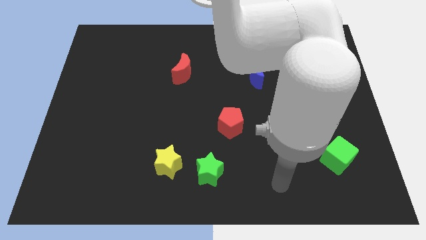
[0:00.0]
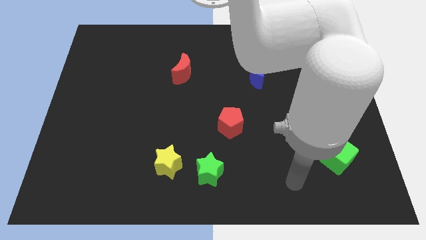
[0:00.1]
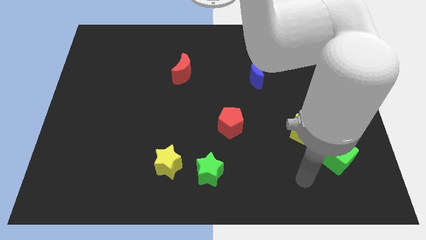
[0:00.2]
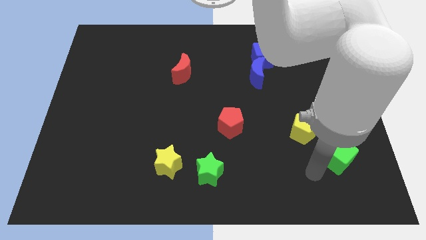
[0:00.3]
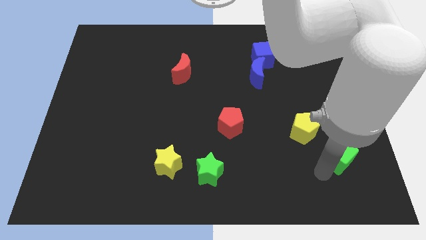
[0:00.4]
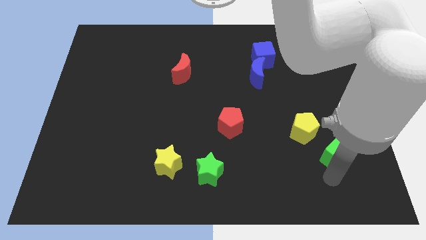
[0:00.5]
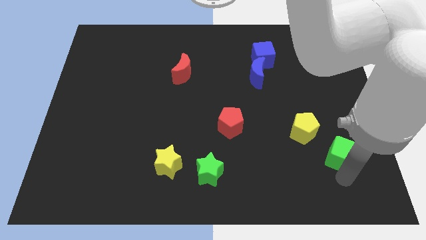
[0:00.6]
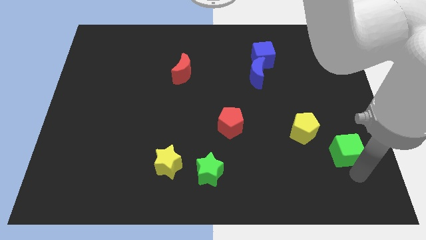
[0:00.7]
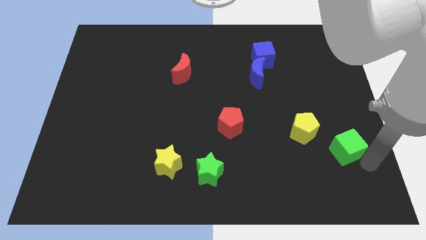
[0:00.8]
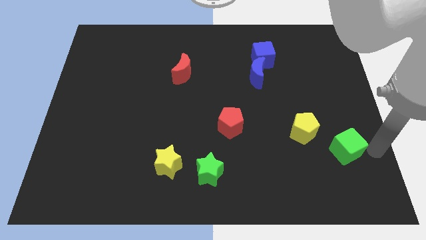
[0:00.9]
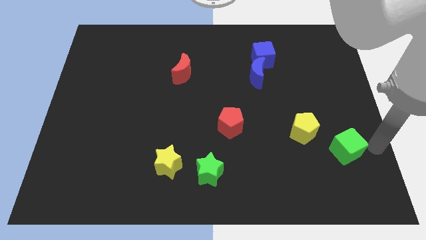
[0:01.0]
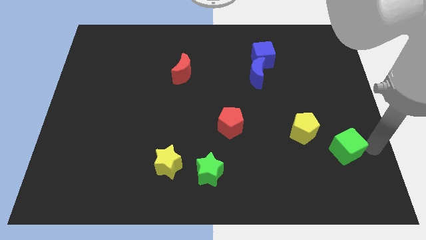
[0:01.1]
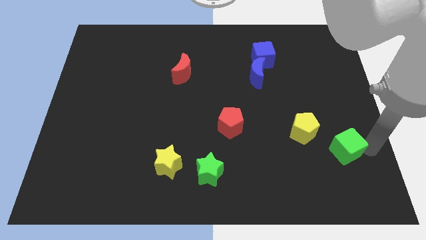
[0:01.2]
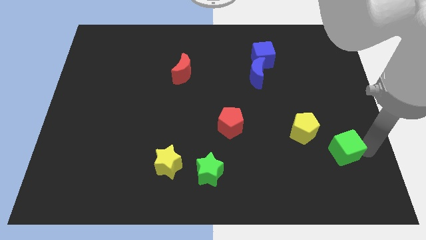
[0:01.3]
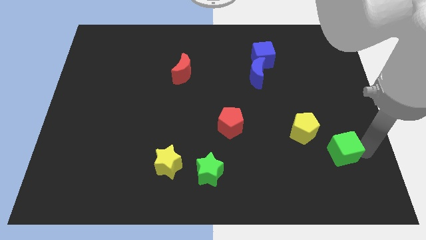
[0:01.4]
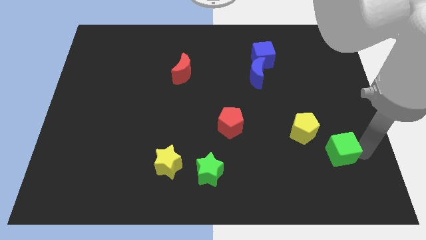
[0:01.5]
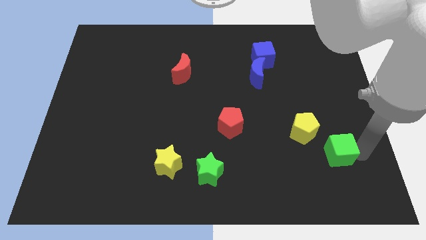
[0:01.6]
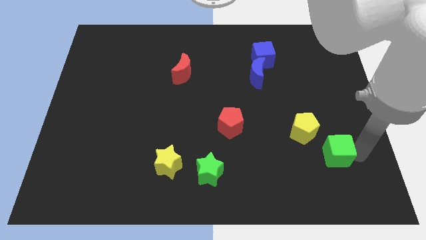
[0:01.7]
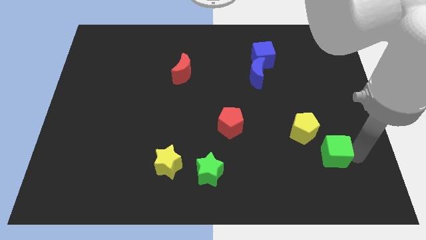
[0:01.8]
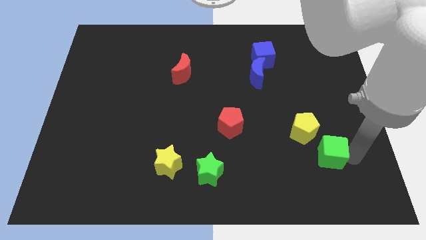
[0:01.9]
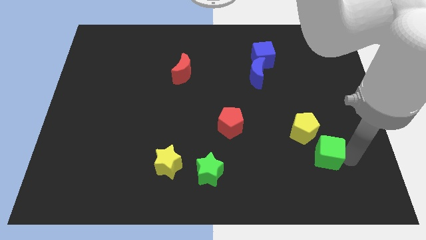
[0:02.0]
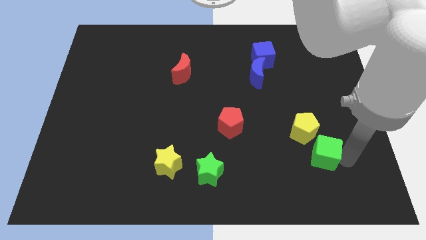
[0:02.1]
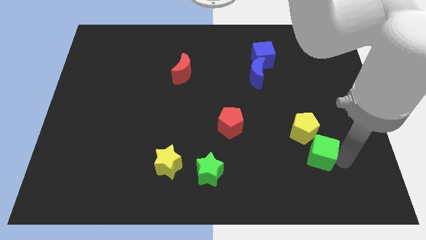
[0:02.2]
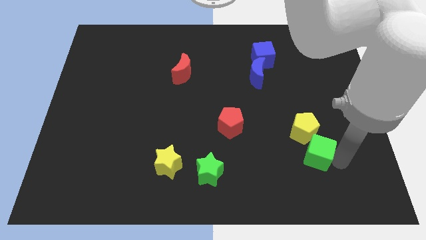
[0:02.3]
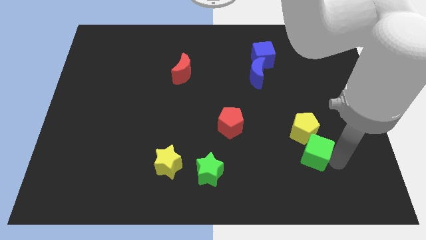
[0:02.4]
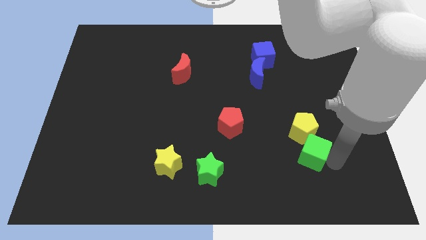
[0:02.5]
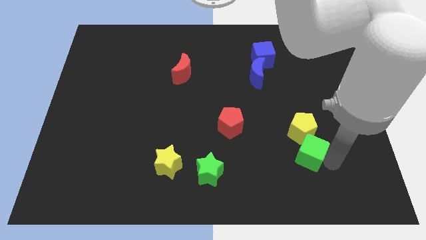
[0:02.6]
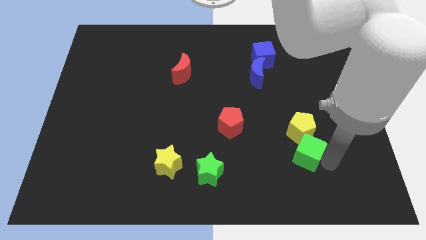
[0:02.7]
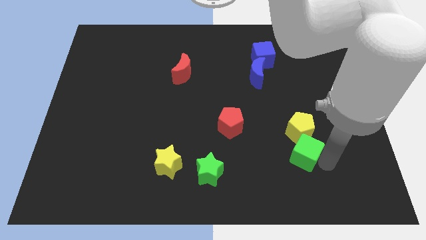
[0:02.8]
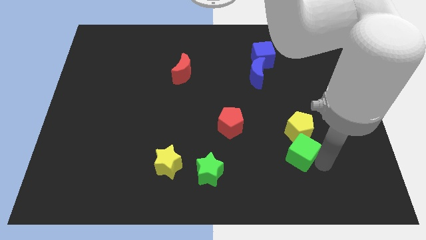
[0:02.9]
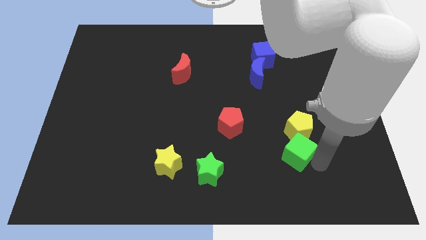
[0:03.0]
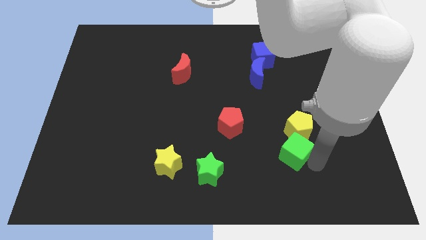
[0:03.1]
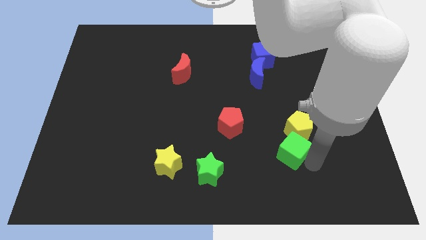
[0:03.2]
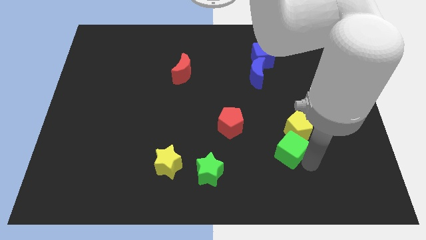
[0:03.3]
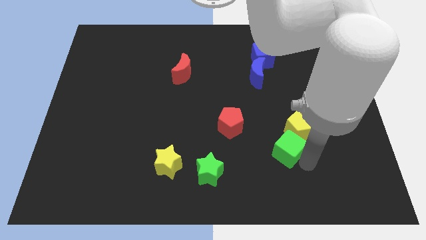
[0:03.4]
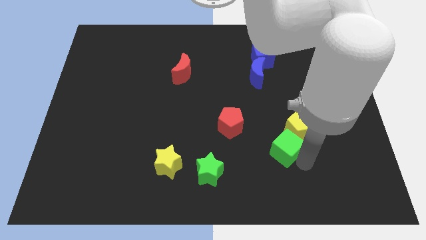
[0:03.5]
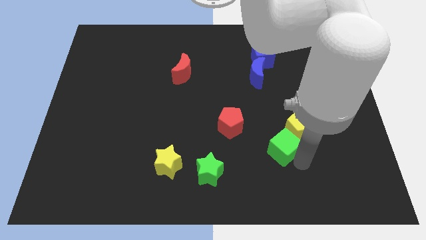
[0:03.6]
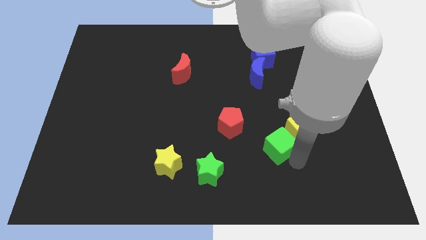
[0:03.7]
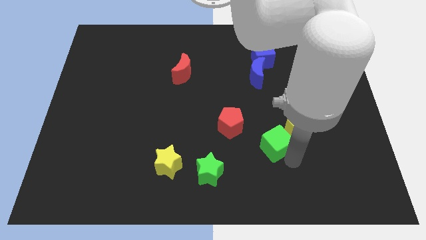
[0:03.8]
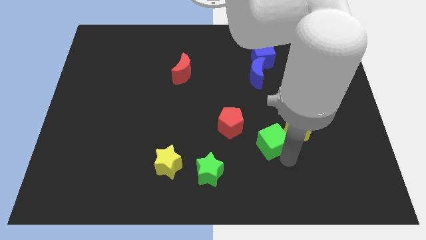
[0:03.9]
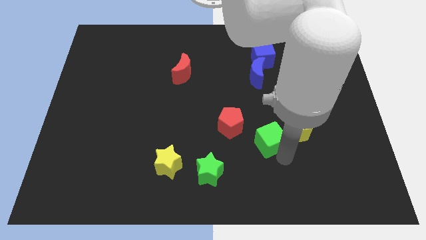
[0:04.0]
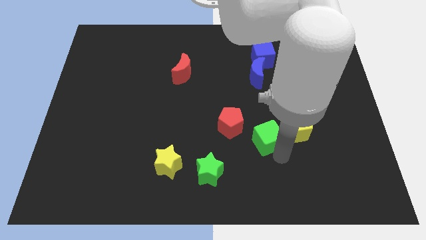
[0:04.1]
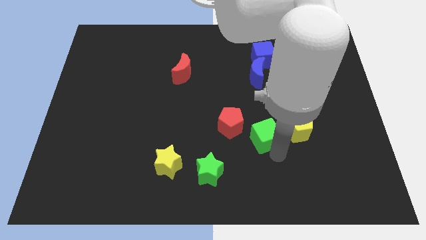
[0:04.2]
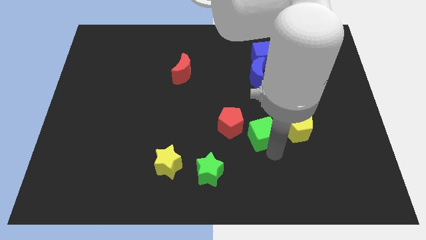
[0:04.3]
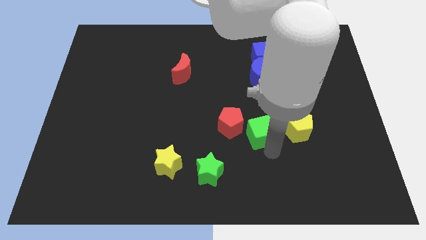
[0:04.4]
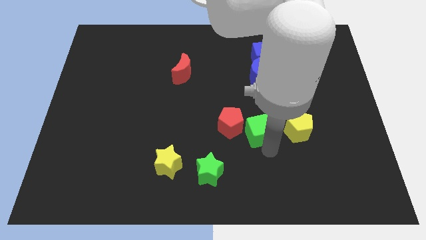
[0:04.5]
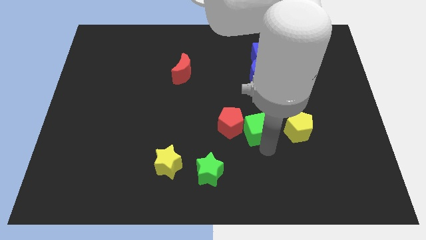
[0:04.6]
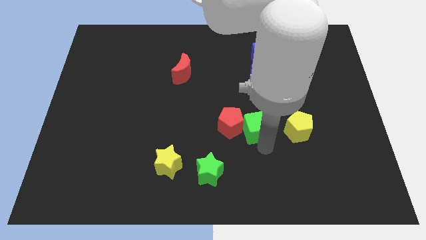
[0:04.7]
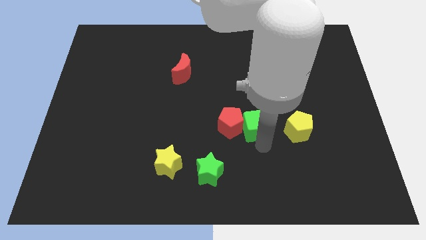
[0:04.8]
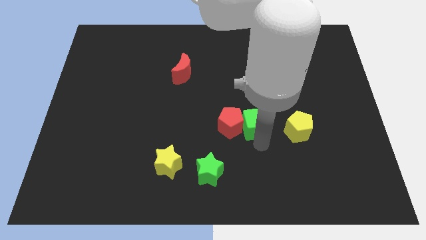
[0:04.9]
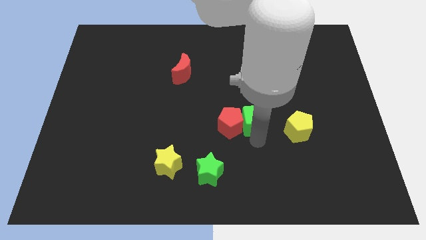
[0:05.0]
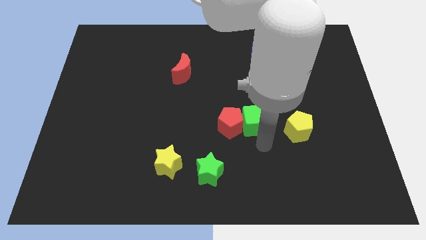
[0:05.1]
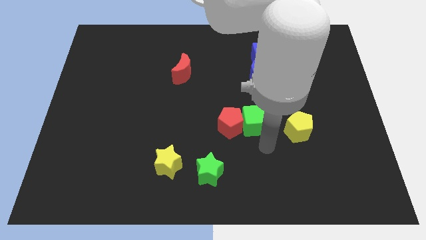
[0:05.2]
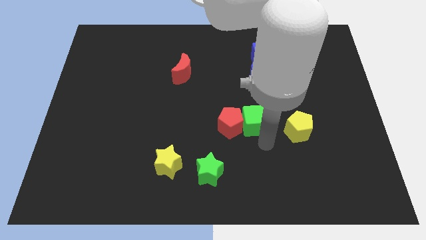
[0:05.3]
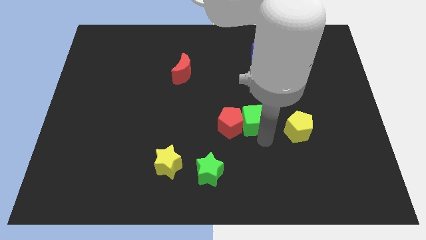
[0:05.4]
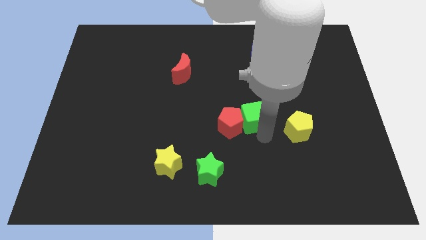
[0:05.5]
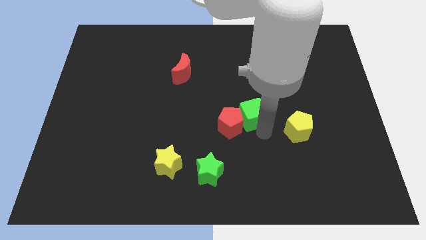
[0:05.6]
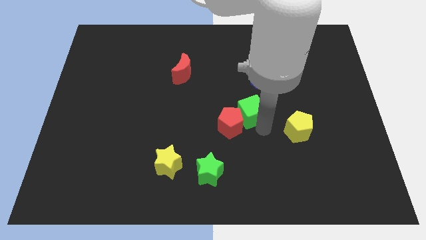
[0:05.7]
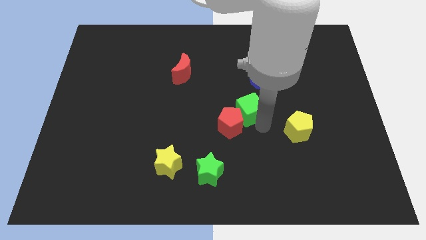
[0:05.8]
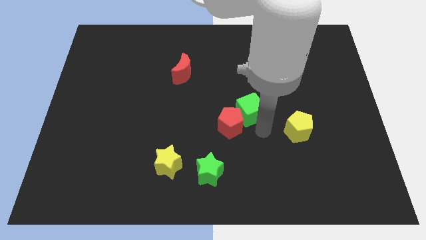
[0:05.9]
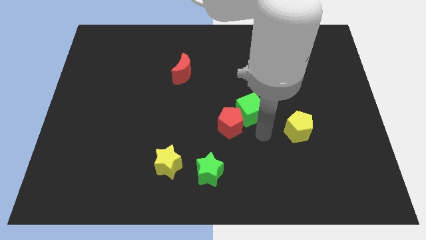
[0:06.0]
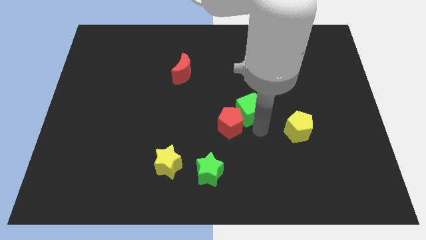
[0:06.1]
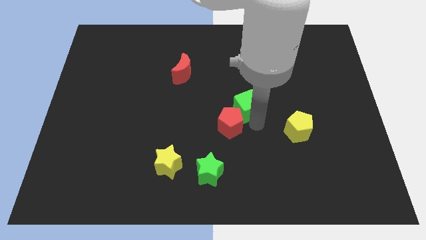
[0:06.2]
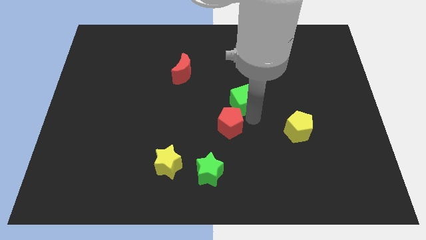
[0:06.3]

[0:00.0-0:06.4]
put the green cube to the bottom left of the blue moon

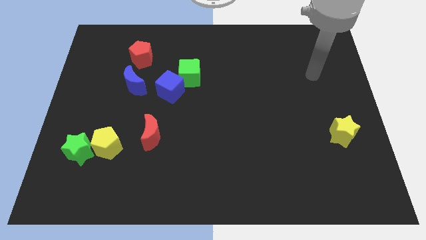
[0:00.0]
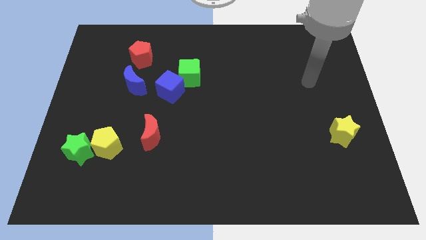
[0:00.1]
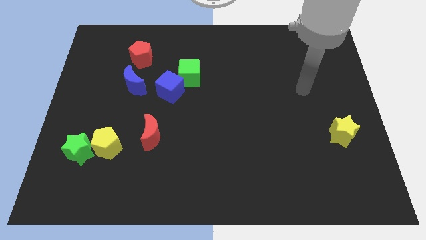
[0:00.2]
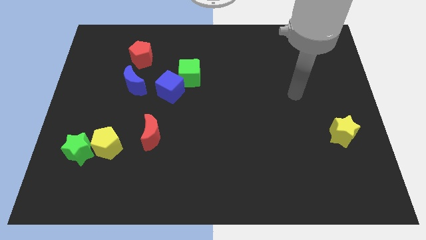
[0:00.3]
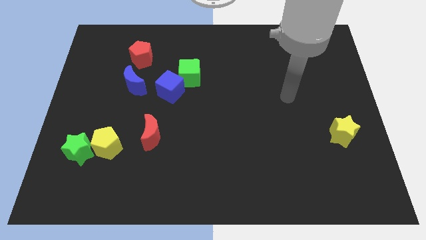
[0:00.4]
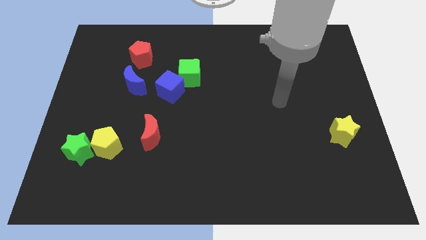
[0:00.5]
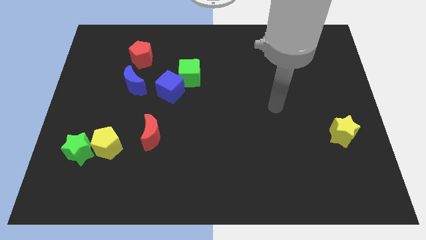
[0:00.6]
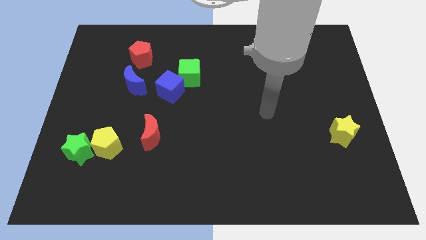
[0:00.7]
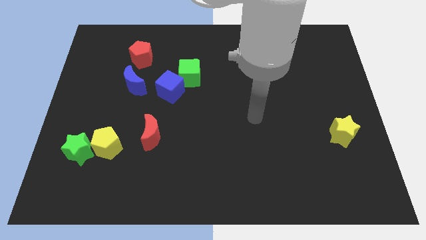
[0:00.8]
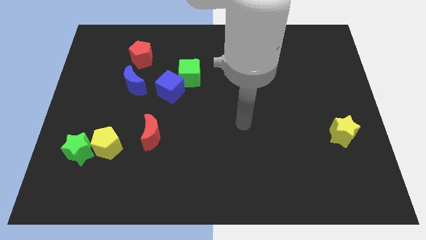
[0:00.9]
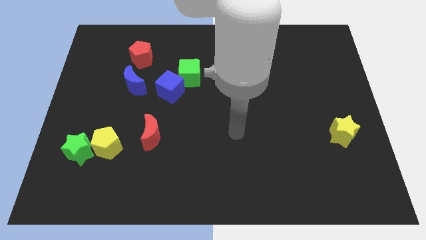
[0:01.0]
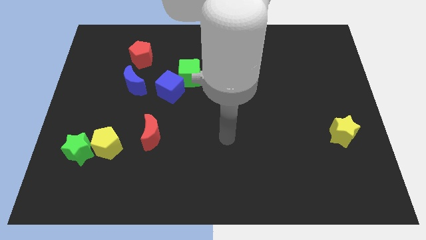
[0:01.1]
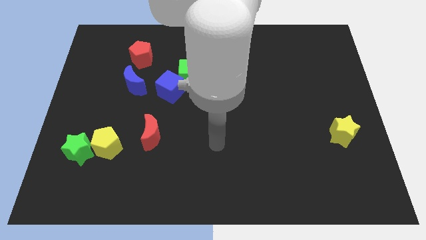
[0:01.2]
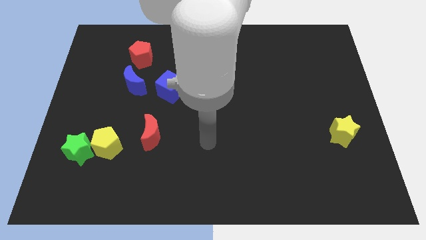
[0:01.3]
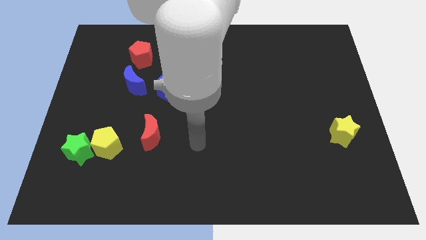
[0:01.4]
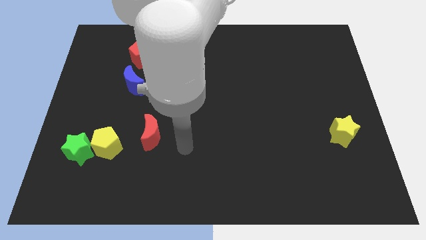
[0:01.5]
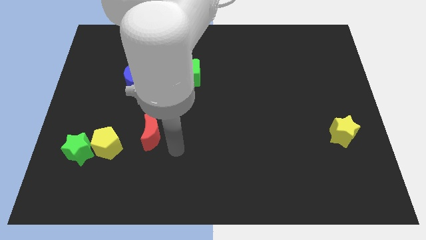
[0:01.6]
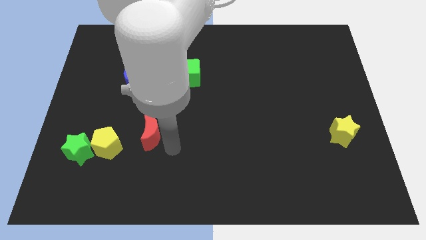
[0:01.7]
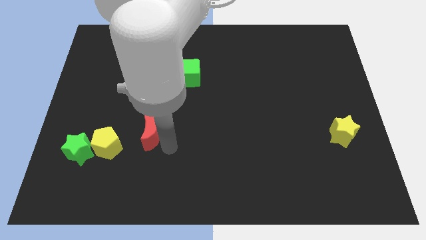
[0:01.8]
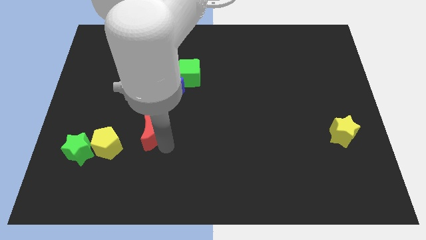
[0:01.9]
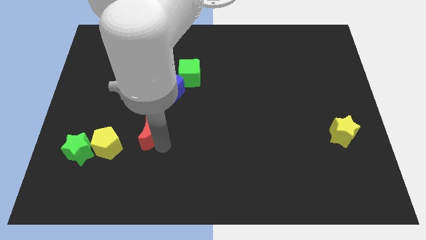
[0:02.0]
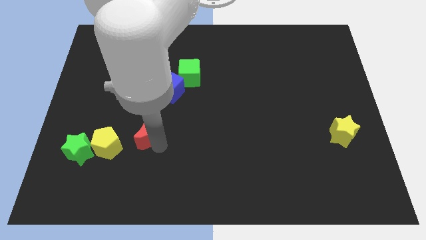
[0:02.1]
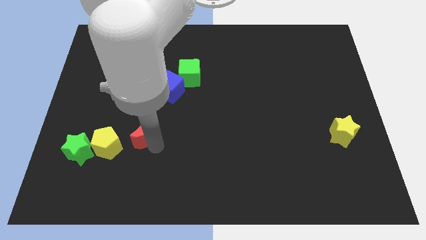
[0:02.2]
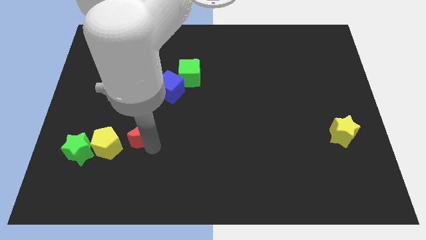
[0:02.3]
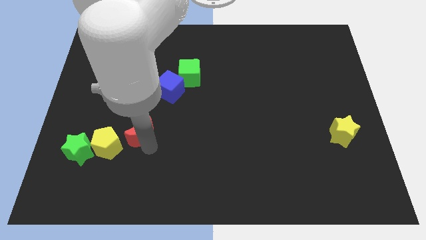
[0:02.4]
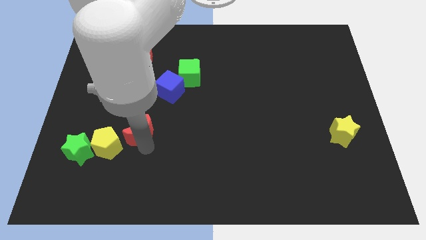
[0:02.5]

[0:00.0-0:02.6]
move the red moon to the bottom side of the blue moon
